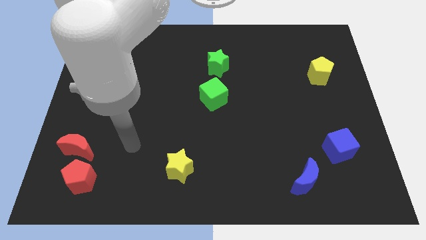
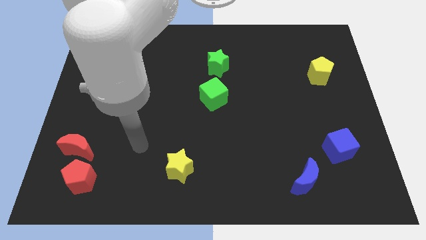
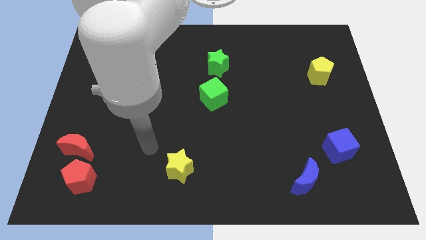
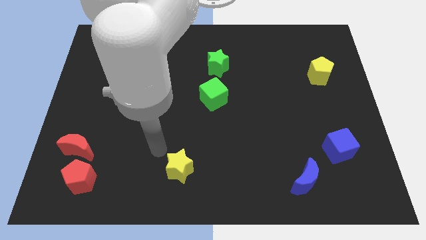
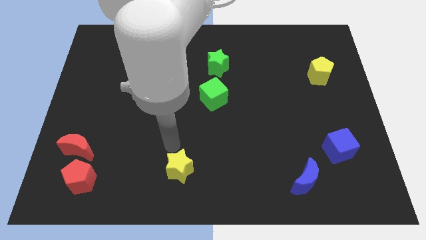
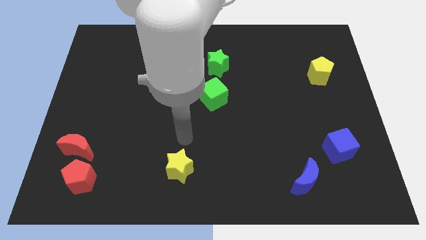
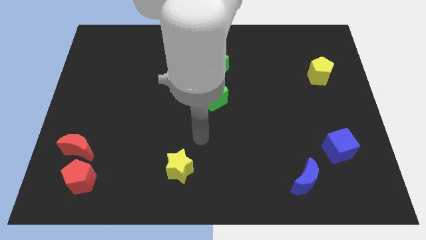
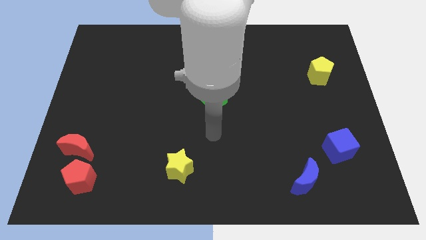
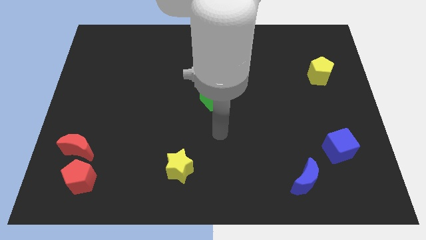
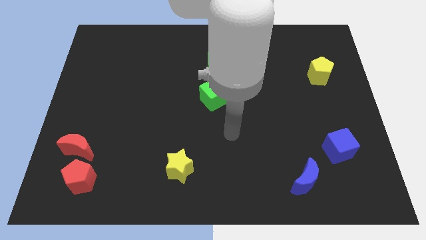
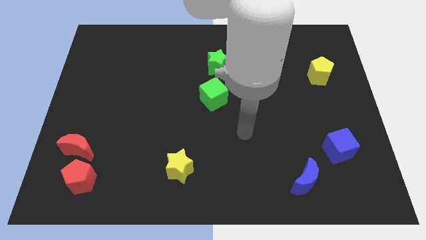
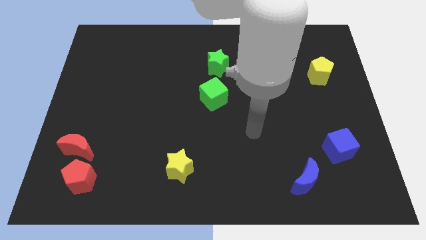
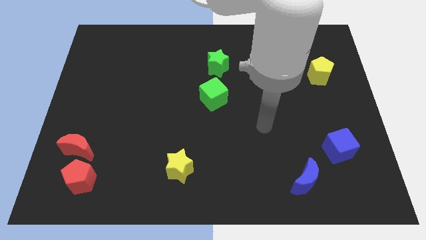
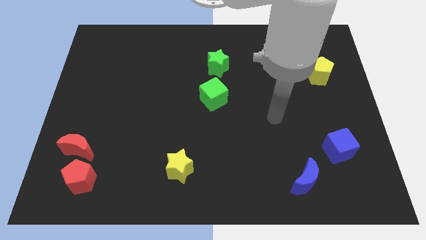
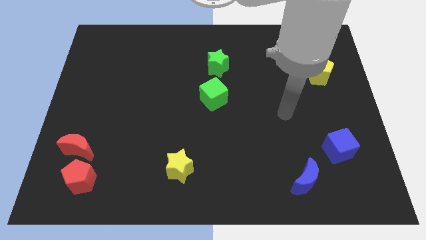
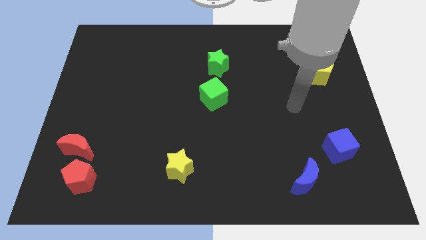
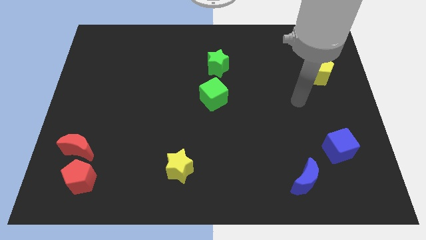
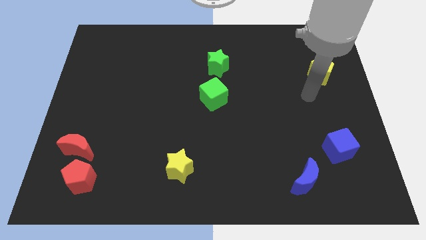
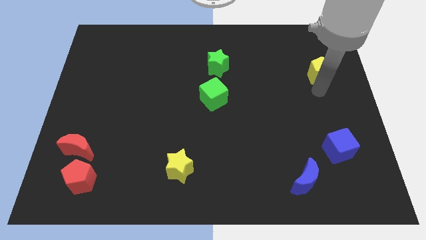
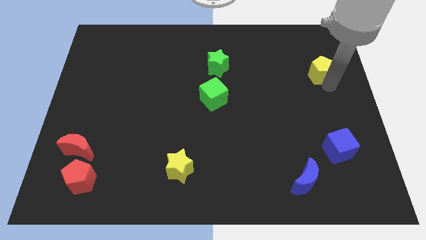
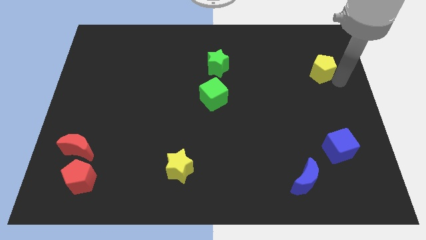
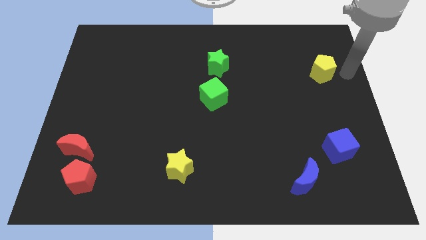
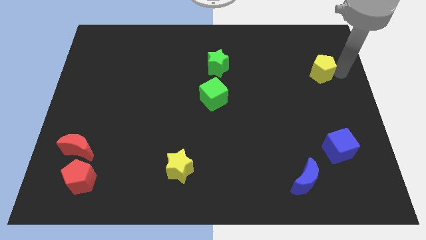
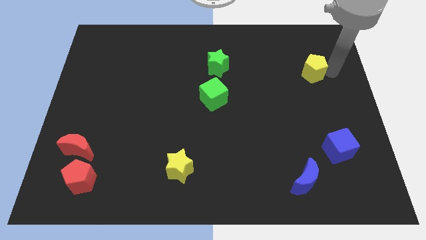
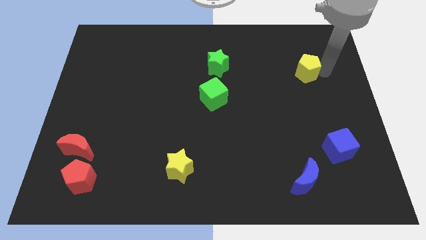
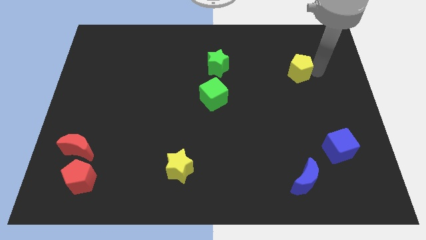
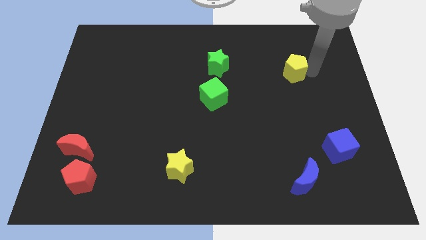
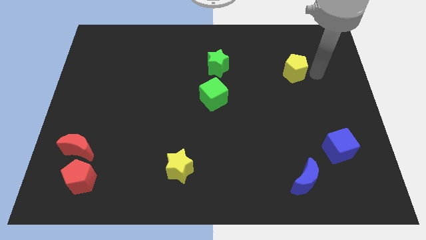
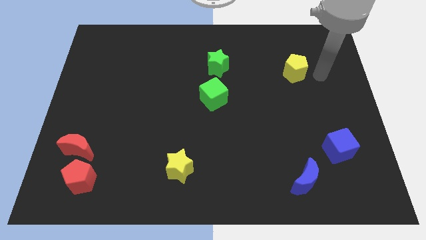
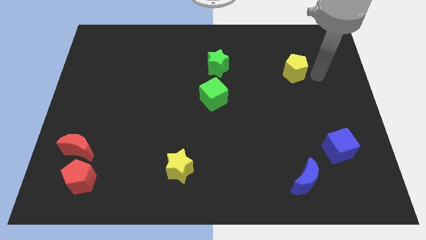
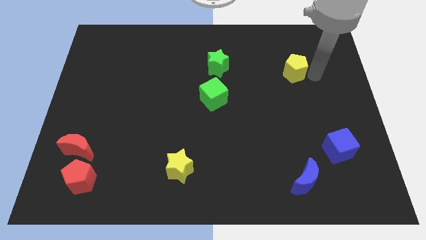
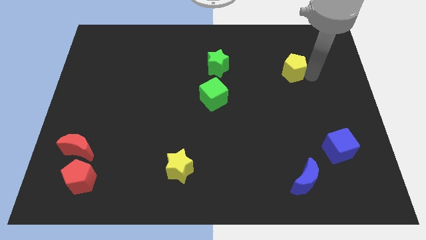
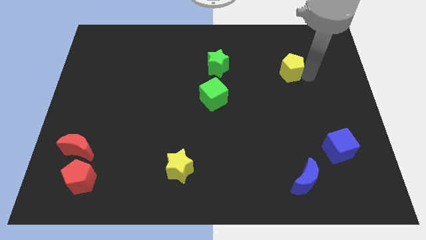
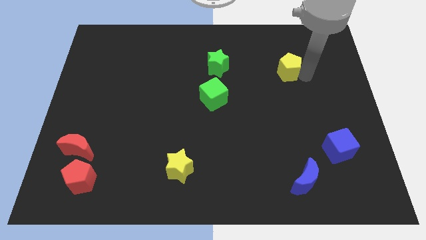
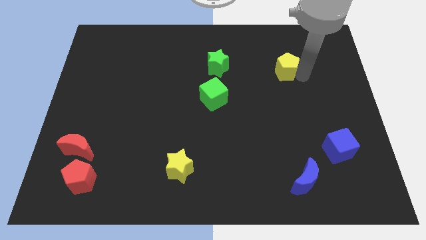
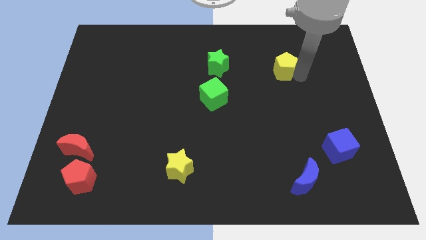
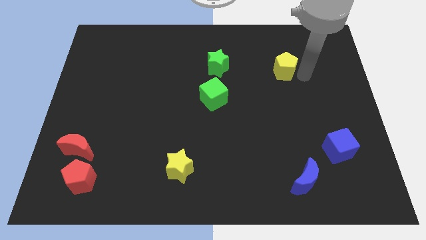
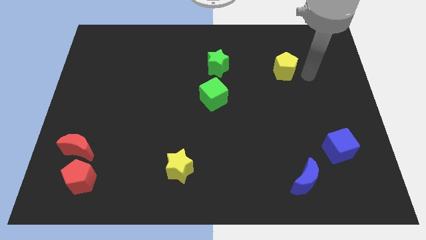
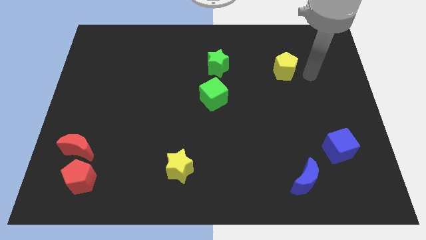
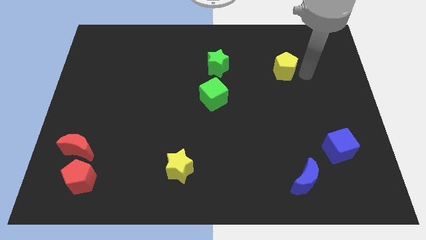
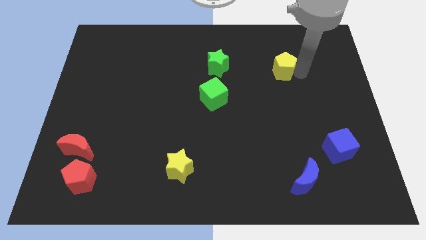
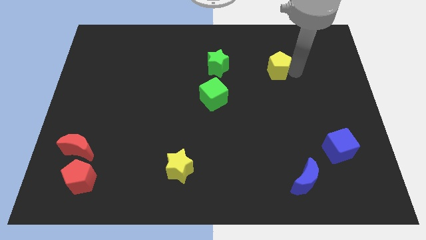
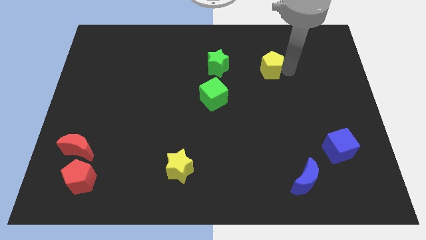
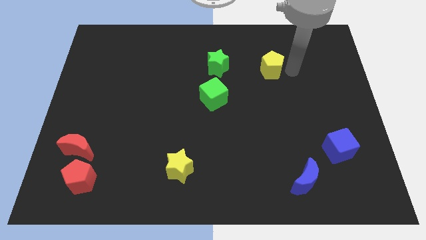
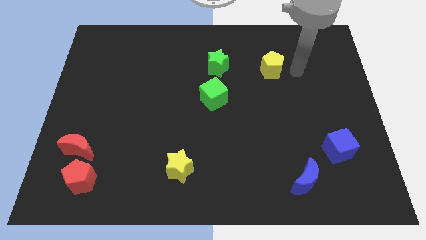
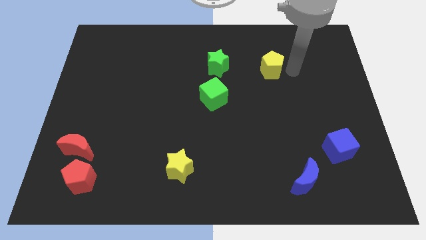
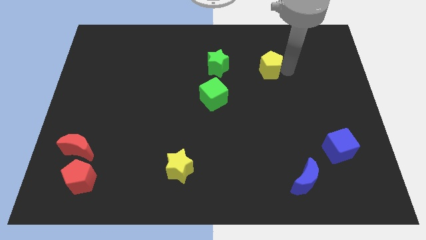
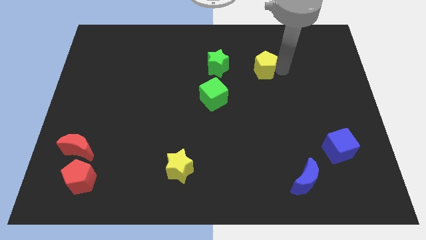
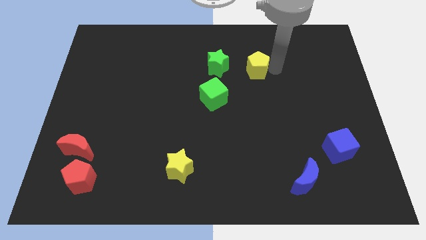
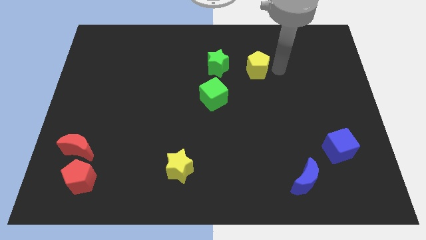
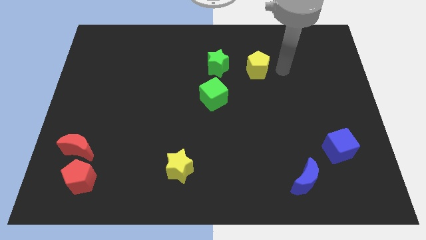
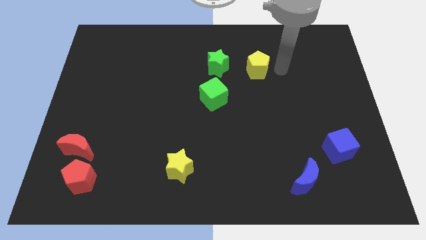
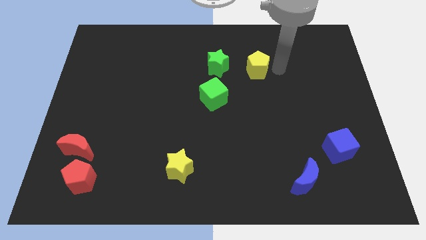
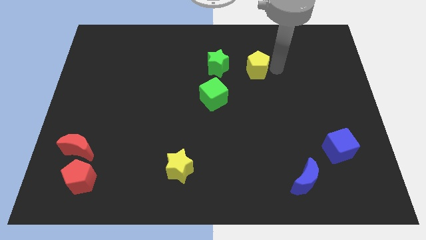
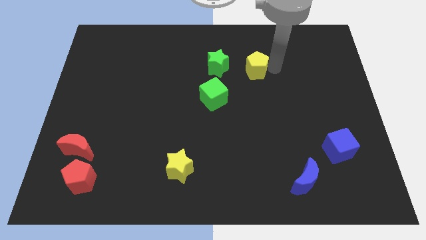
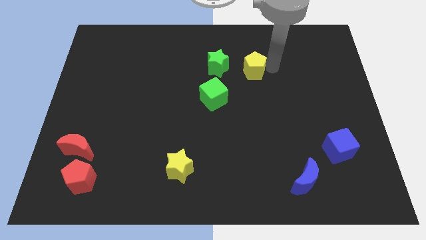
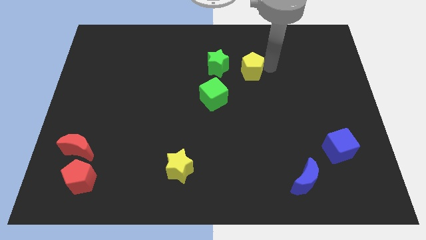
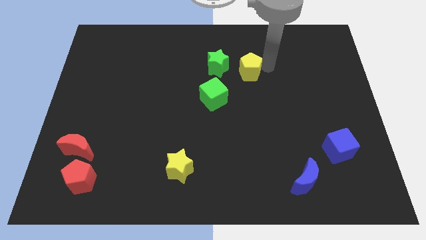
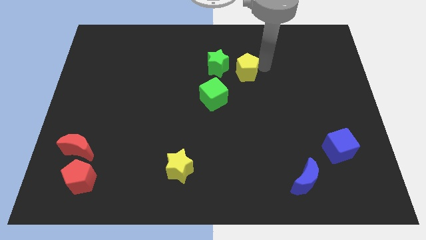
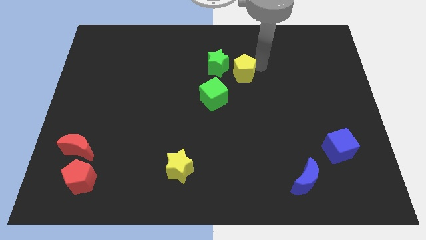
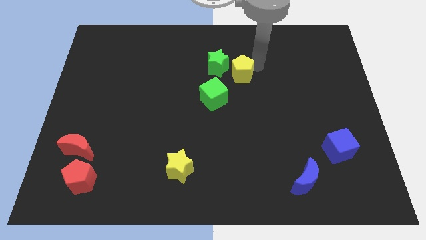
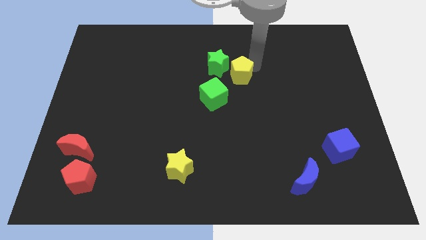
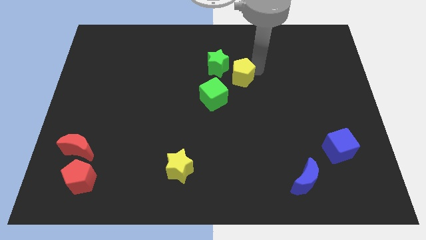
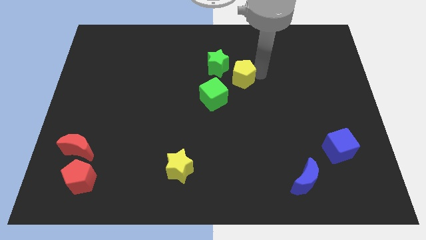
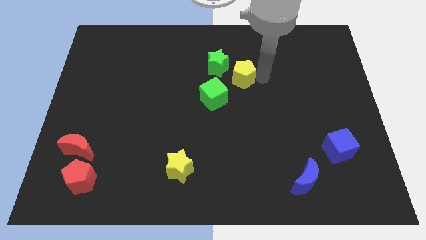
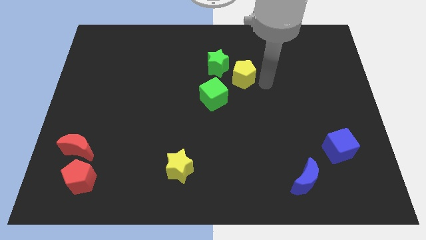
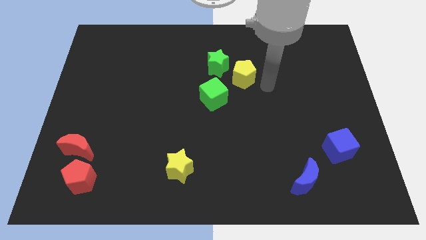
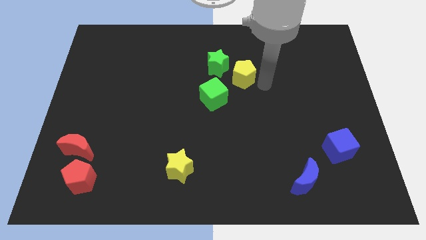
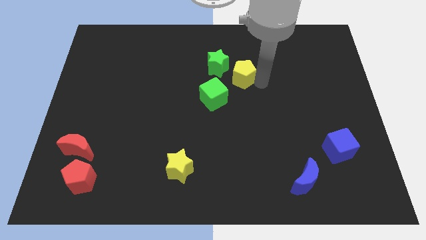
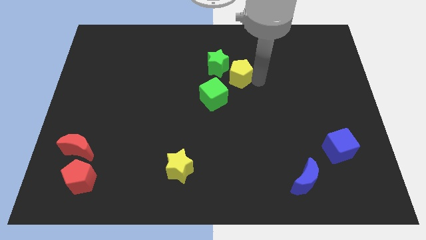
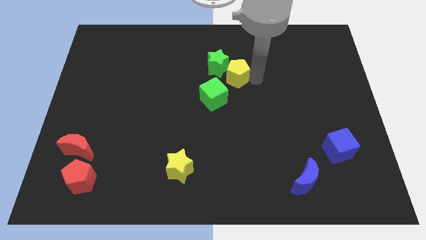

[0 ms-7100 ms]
slide the yellow pentagon next to the green star
